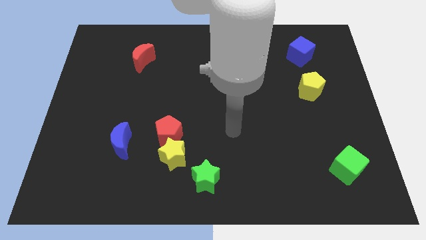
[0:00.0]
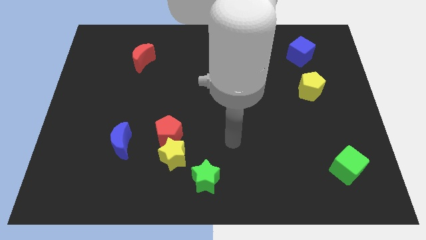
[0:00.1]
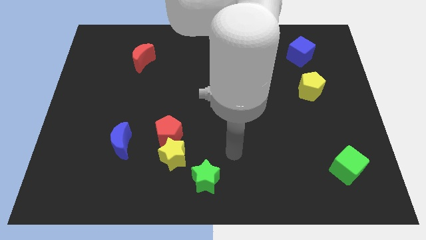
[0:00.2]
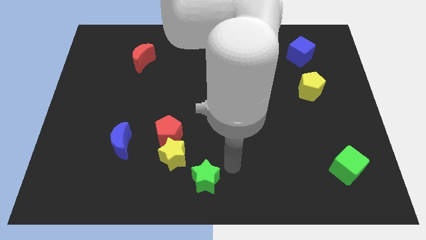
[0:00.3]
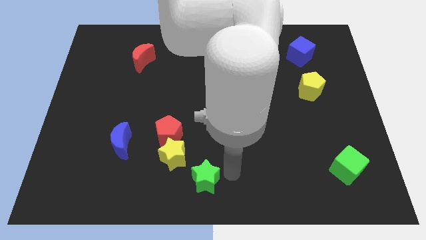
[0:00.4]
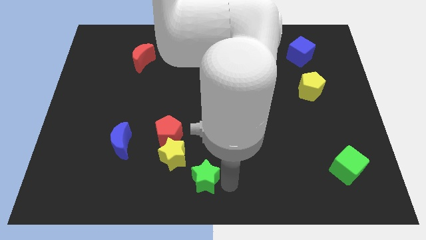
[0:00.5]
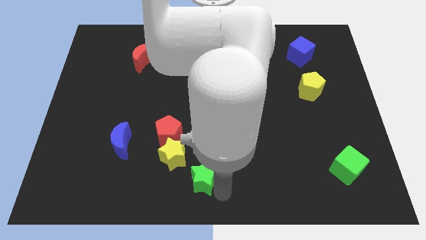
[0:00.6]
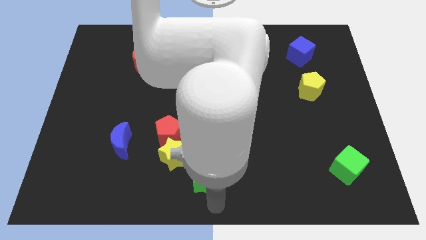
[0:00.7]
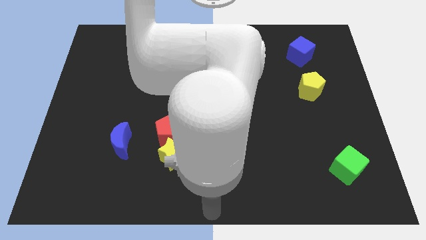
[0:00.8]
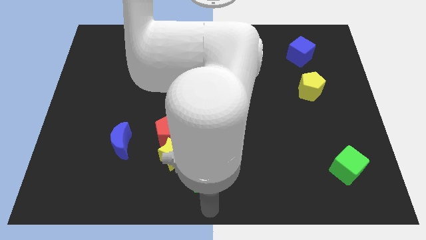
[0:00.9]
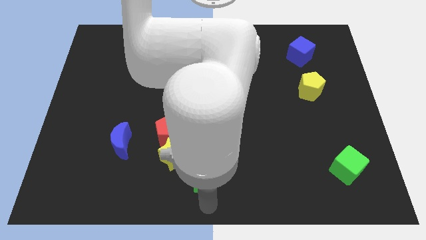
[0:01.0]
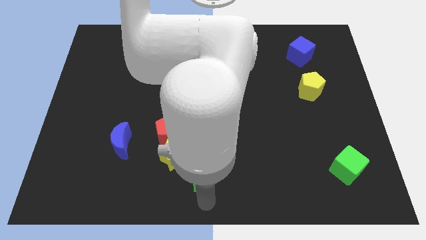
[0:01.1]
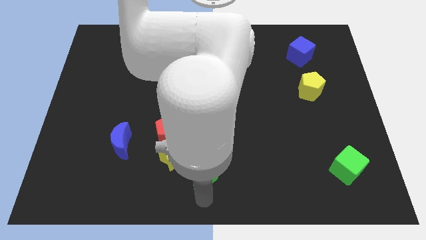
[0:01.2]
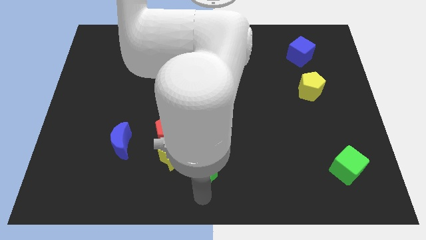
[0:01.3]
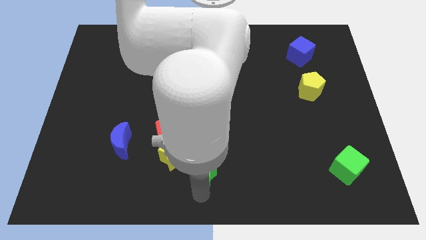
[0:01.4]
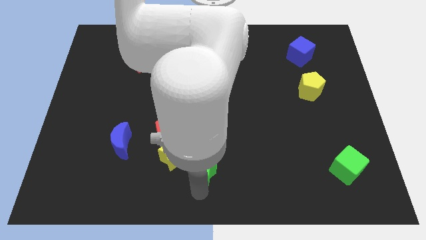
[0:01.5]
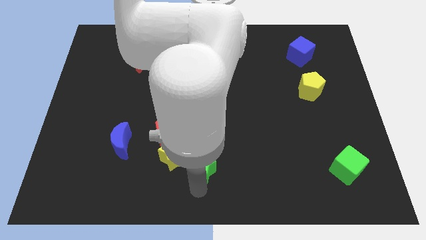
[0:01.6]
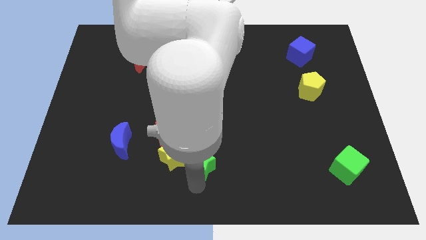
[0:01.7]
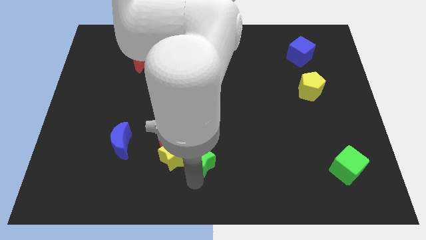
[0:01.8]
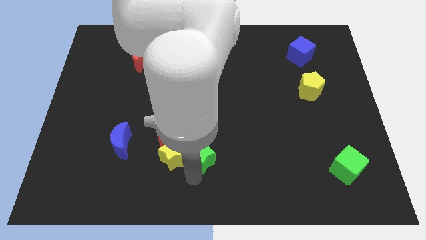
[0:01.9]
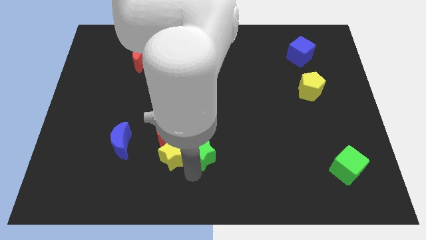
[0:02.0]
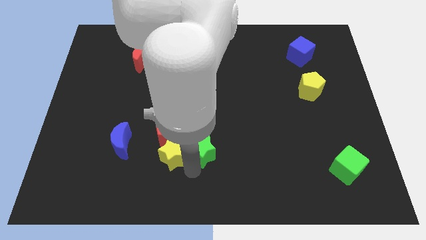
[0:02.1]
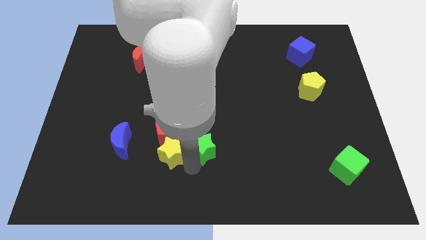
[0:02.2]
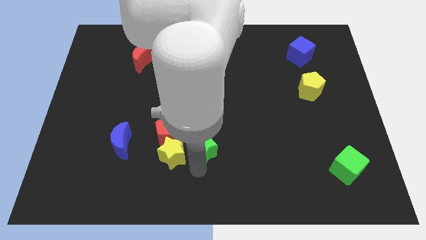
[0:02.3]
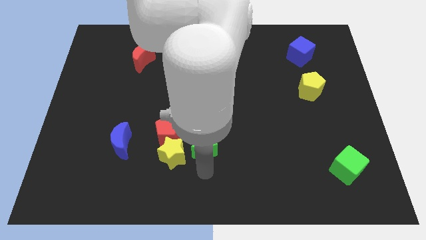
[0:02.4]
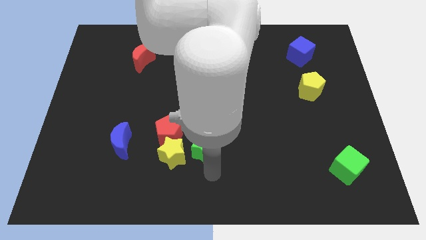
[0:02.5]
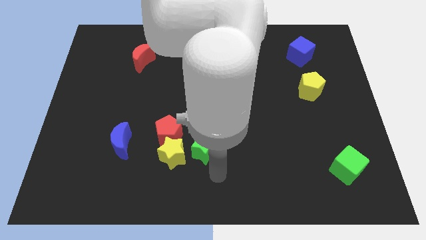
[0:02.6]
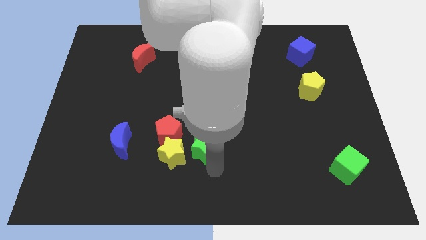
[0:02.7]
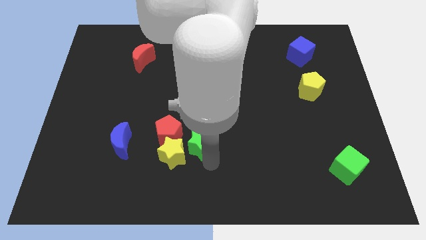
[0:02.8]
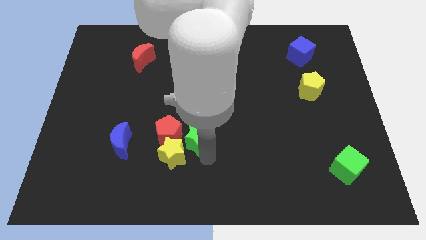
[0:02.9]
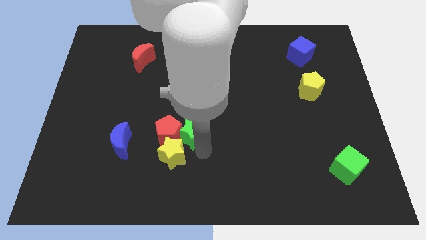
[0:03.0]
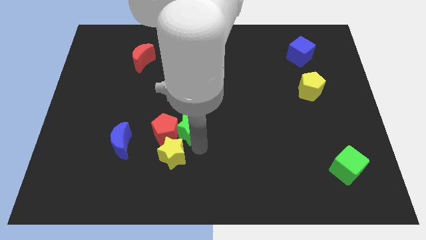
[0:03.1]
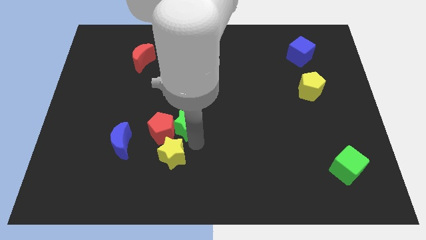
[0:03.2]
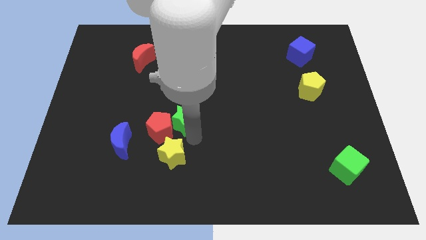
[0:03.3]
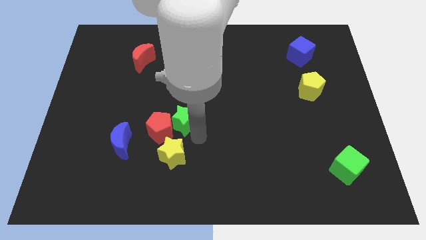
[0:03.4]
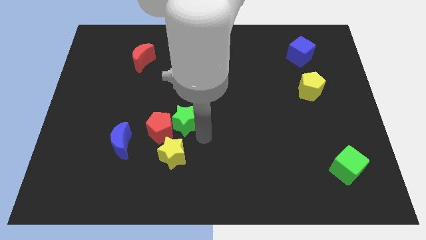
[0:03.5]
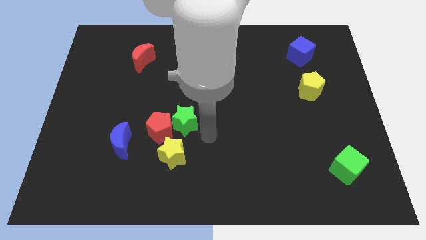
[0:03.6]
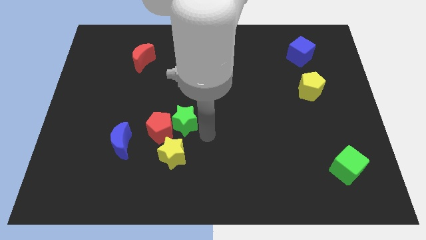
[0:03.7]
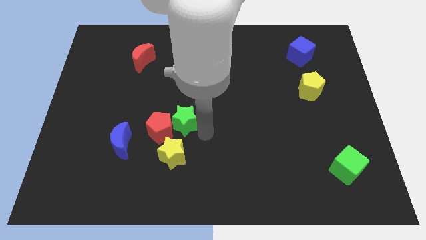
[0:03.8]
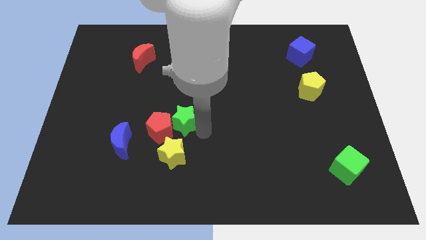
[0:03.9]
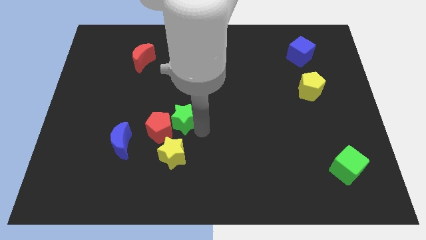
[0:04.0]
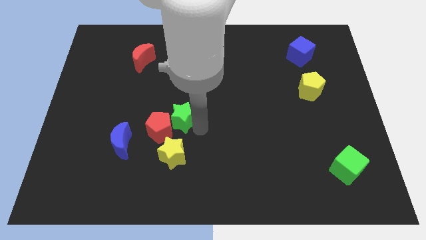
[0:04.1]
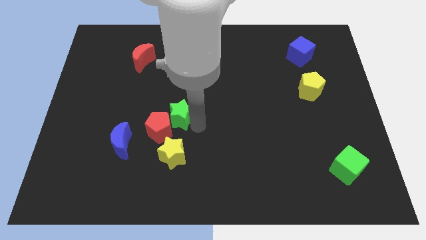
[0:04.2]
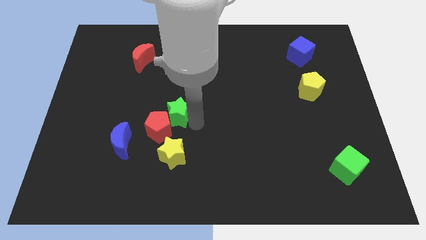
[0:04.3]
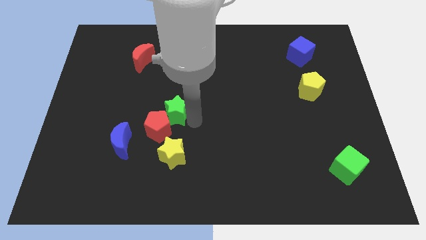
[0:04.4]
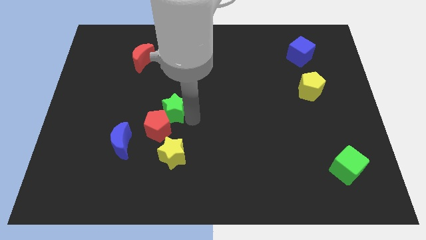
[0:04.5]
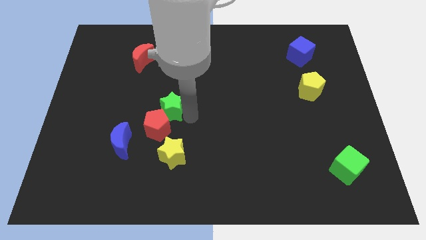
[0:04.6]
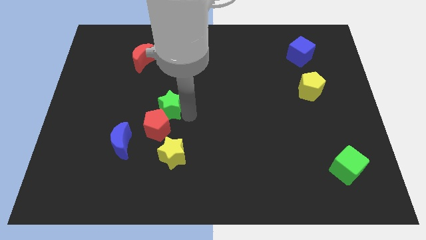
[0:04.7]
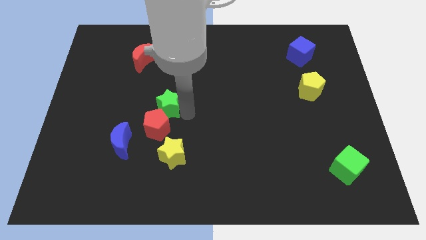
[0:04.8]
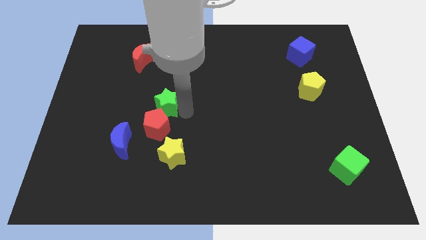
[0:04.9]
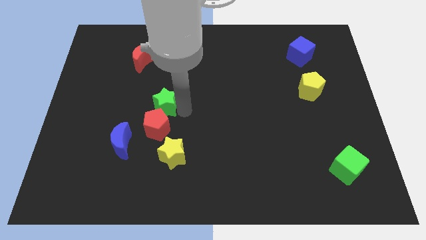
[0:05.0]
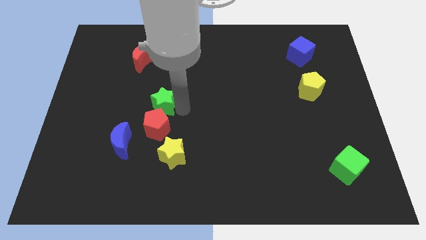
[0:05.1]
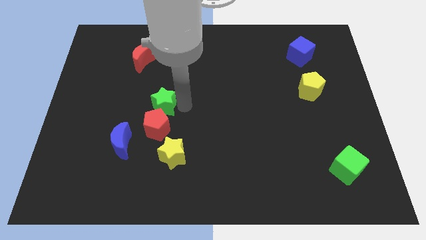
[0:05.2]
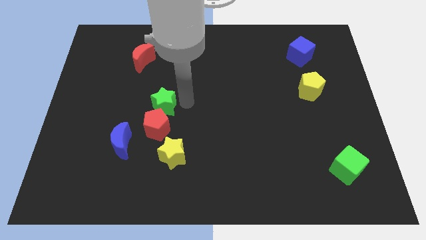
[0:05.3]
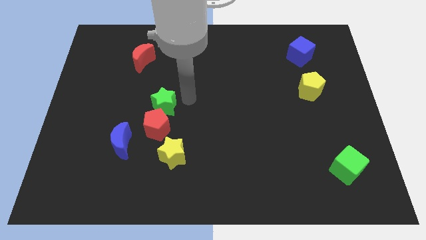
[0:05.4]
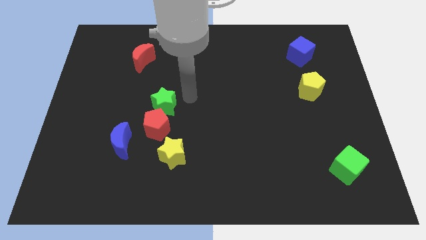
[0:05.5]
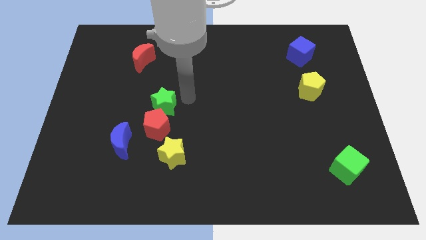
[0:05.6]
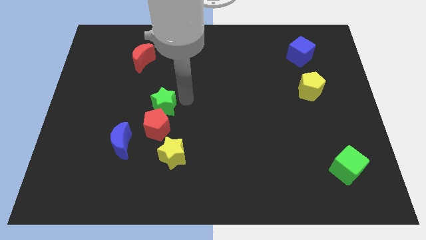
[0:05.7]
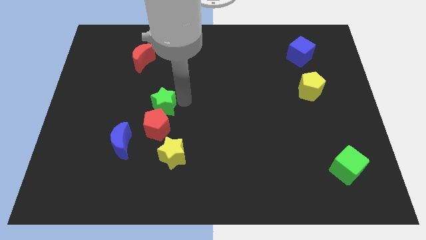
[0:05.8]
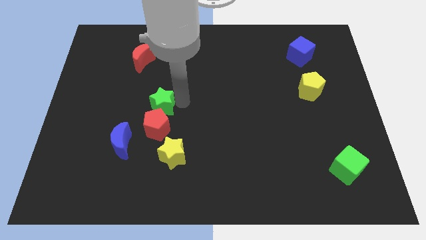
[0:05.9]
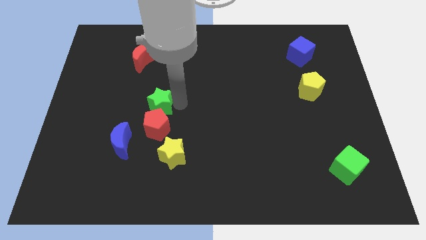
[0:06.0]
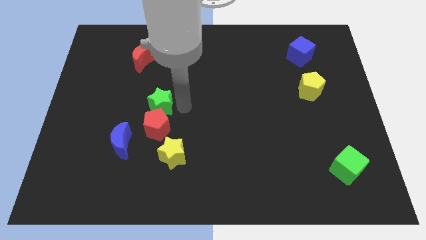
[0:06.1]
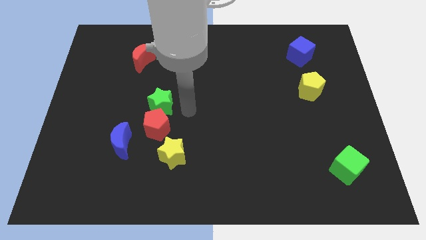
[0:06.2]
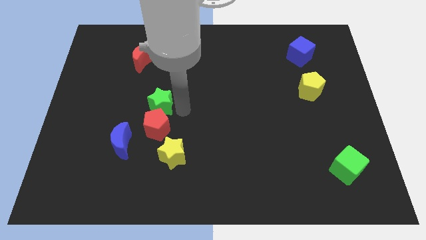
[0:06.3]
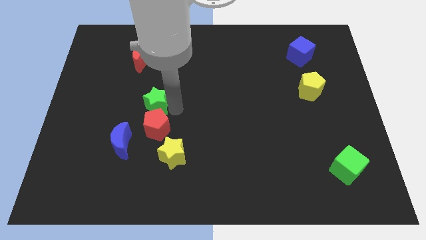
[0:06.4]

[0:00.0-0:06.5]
slide the green star up and to the left

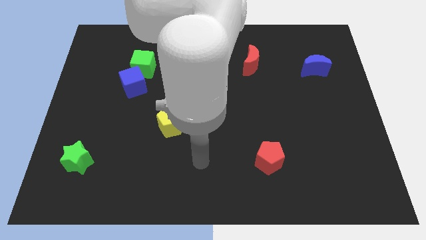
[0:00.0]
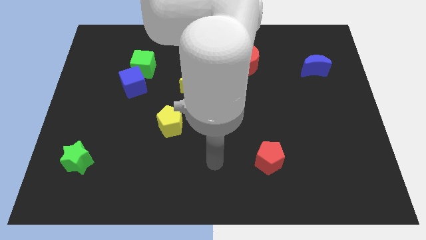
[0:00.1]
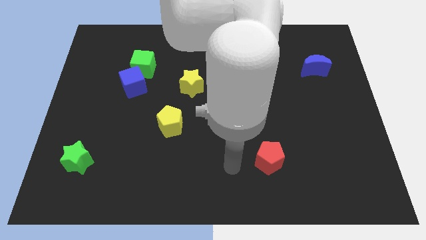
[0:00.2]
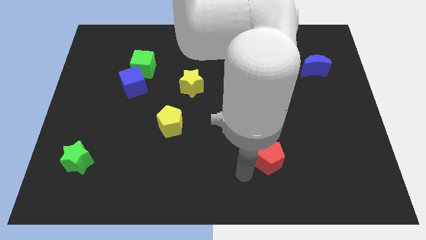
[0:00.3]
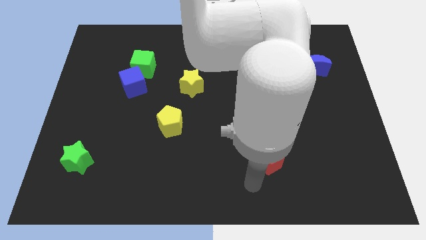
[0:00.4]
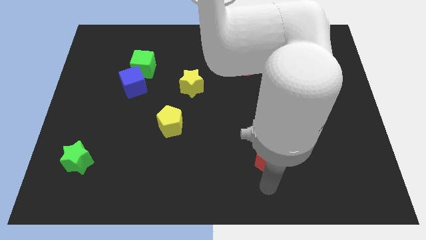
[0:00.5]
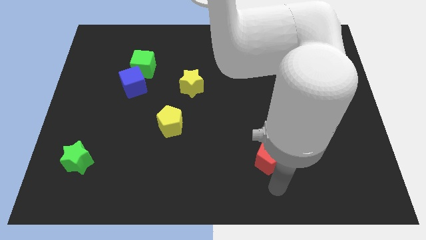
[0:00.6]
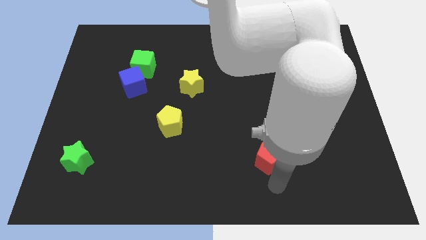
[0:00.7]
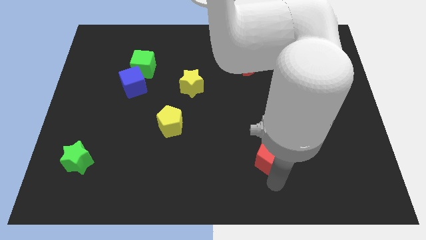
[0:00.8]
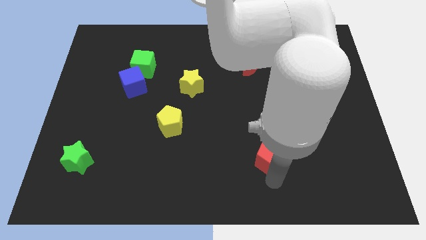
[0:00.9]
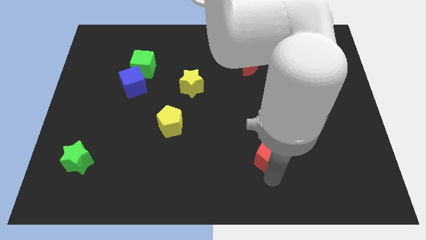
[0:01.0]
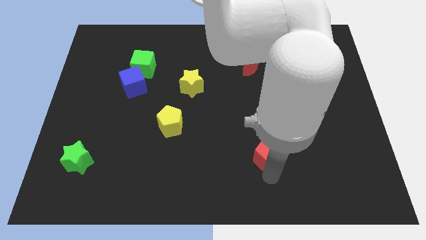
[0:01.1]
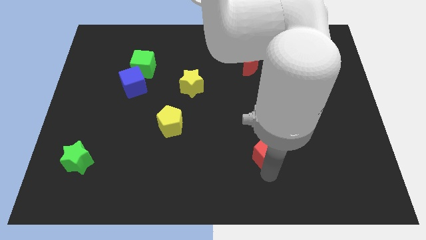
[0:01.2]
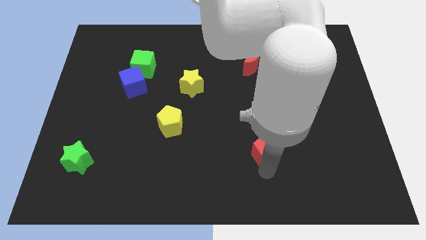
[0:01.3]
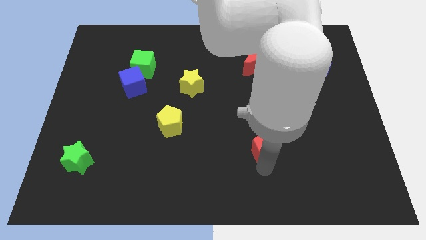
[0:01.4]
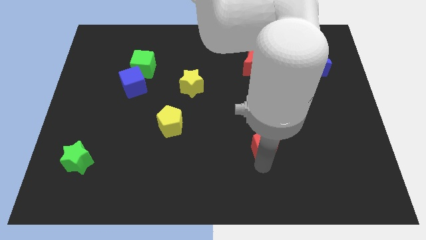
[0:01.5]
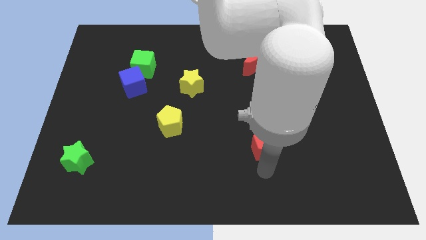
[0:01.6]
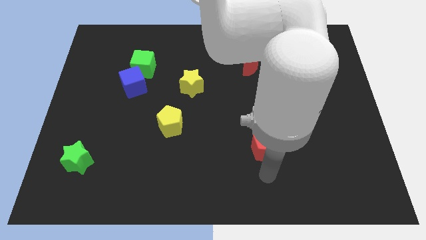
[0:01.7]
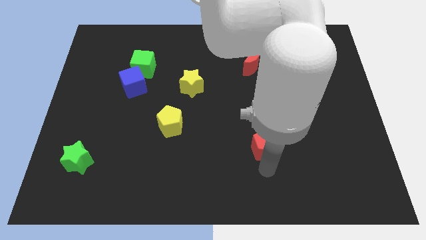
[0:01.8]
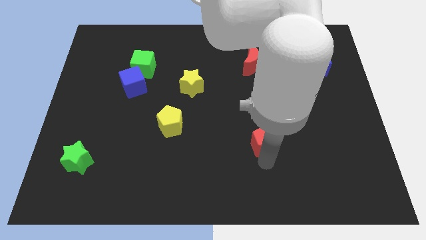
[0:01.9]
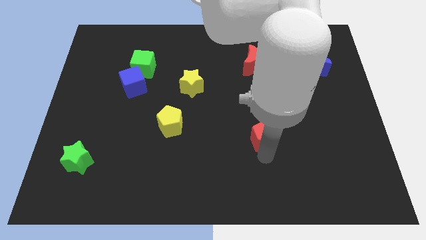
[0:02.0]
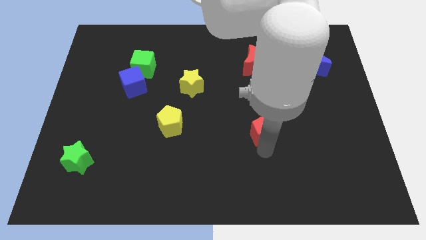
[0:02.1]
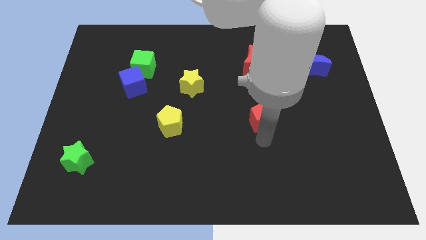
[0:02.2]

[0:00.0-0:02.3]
slightly move the red pentagon up
